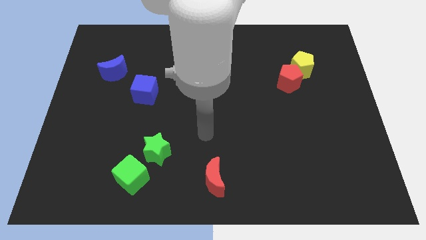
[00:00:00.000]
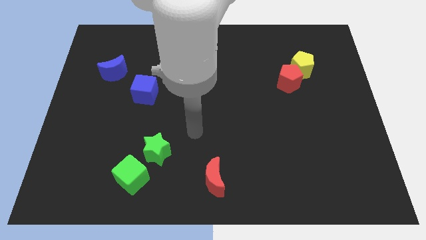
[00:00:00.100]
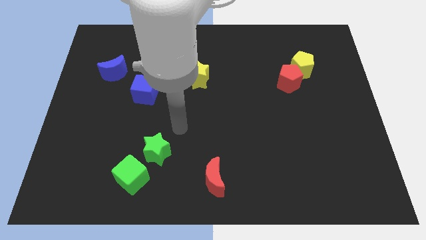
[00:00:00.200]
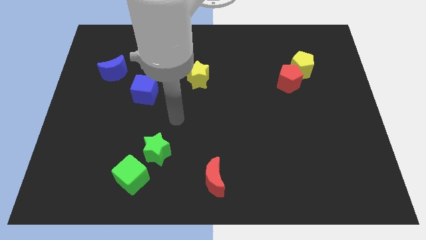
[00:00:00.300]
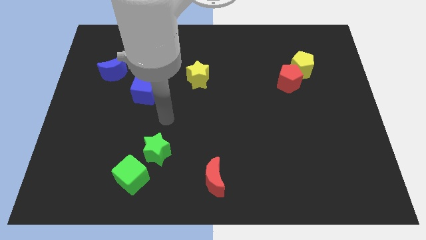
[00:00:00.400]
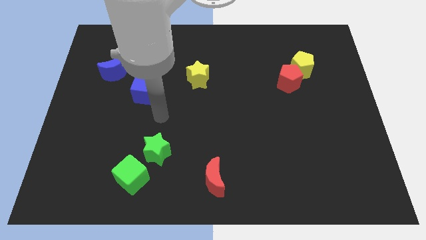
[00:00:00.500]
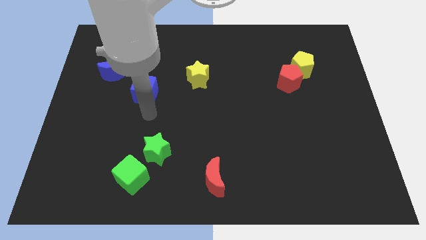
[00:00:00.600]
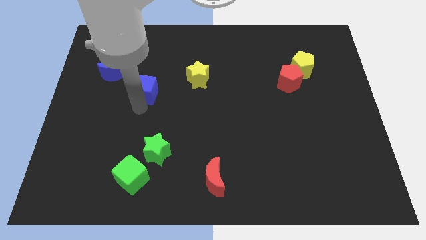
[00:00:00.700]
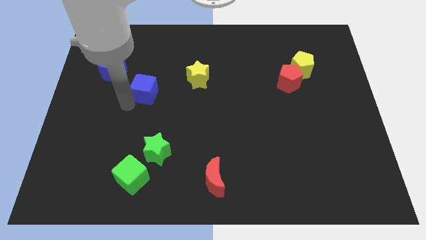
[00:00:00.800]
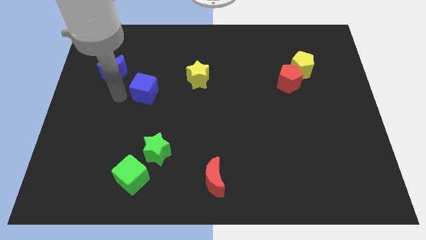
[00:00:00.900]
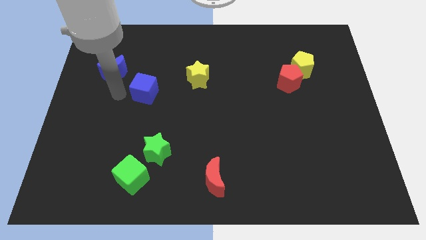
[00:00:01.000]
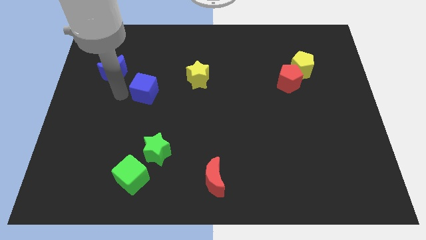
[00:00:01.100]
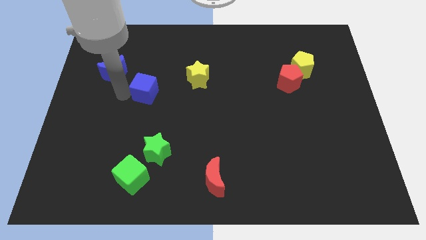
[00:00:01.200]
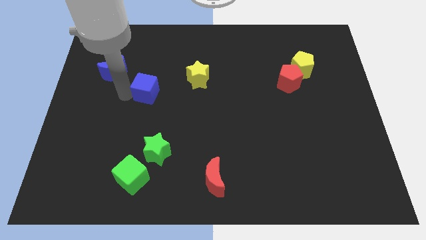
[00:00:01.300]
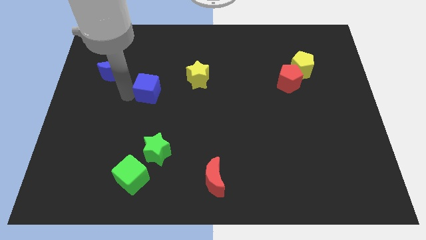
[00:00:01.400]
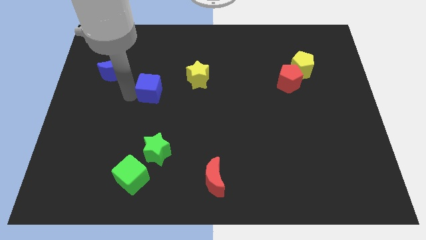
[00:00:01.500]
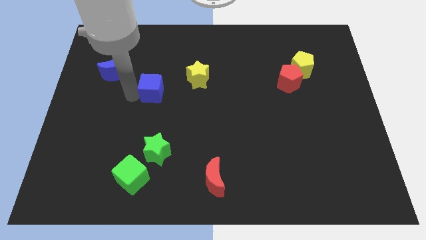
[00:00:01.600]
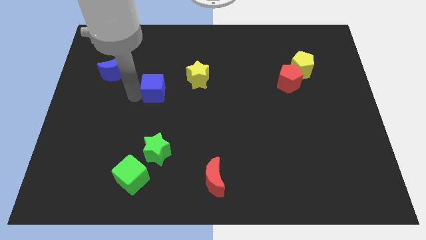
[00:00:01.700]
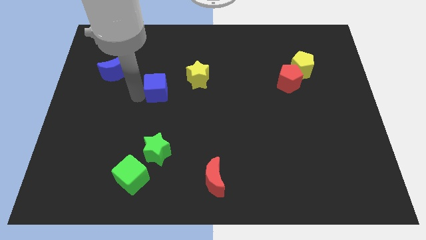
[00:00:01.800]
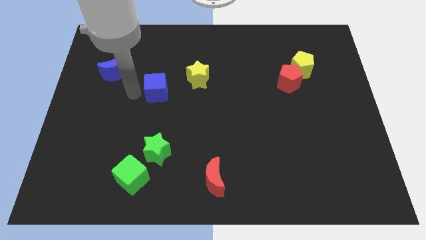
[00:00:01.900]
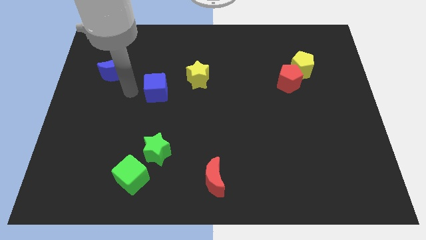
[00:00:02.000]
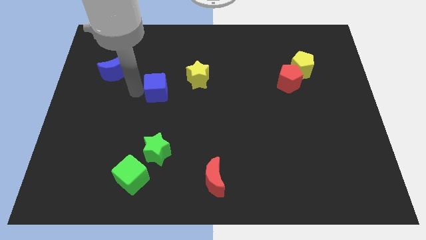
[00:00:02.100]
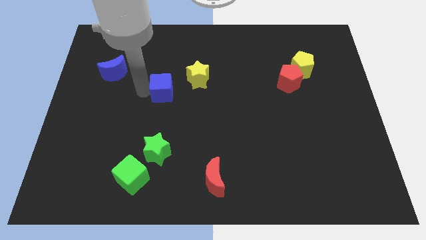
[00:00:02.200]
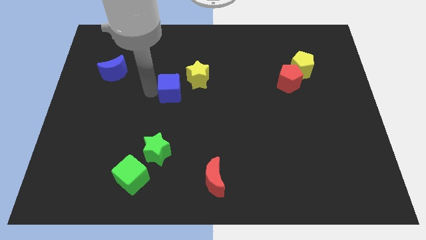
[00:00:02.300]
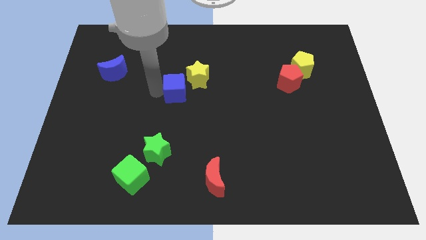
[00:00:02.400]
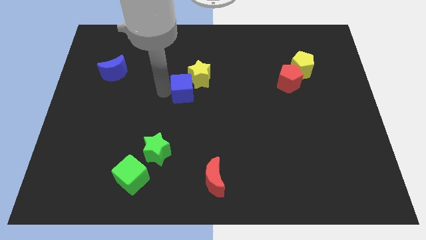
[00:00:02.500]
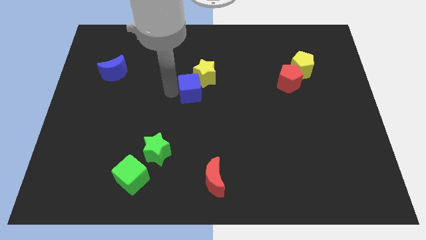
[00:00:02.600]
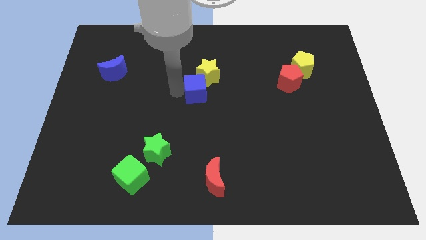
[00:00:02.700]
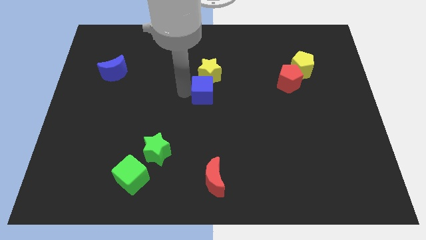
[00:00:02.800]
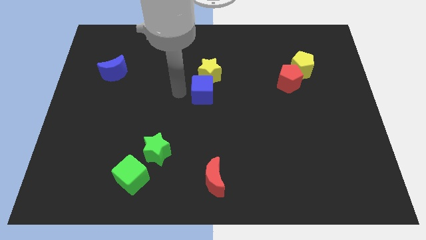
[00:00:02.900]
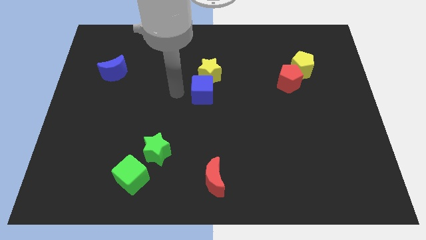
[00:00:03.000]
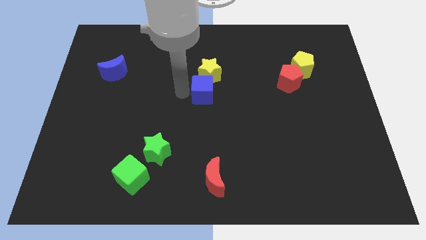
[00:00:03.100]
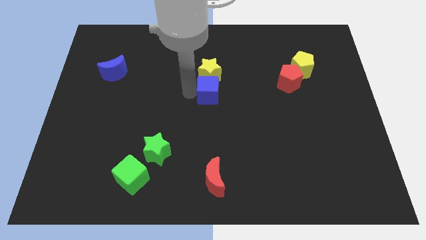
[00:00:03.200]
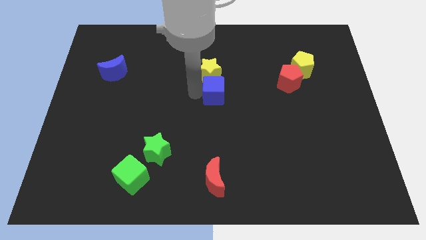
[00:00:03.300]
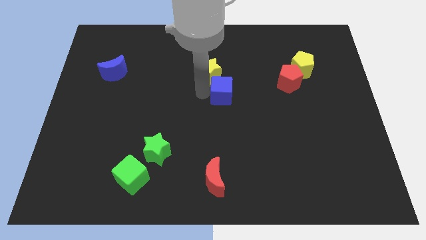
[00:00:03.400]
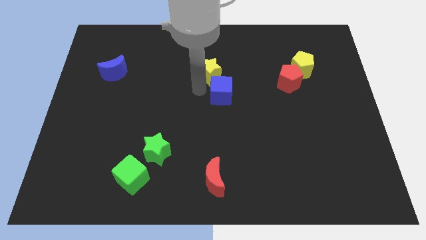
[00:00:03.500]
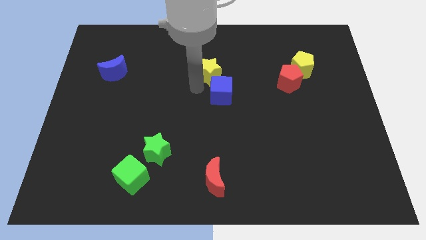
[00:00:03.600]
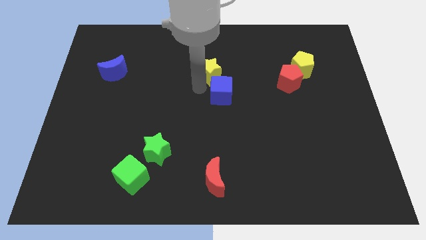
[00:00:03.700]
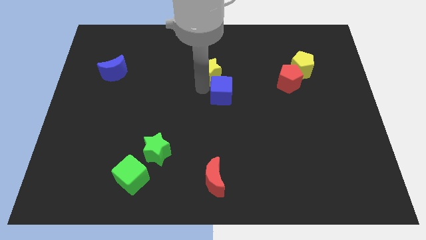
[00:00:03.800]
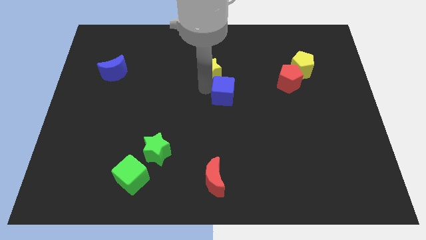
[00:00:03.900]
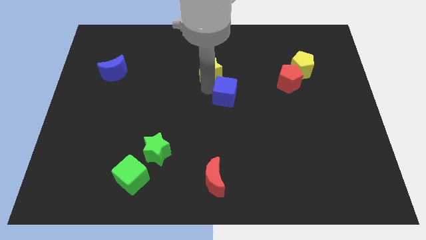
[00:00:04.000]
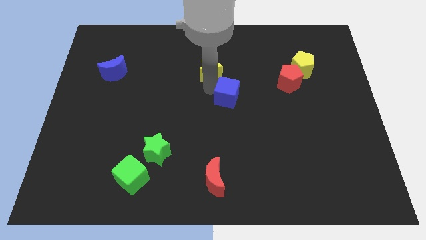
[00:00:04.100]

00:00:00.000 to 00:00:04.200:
move the blue cube right

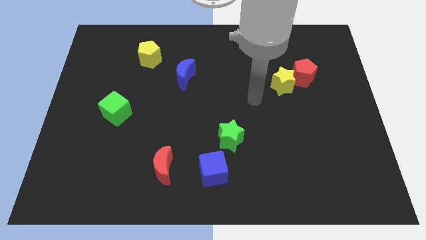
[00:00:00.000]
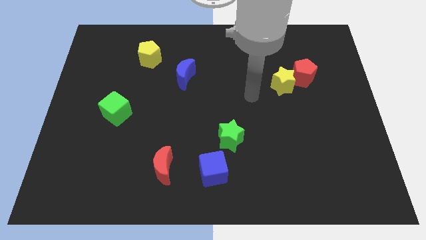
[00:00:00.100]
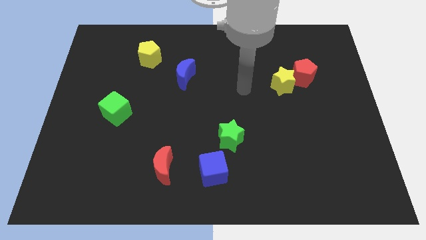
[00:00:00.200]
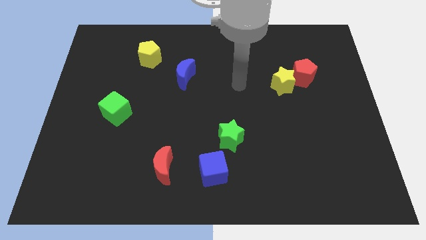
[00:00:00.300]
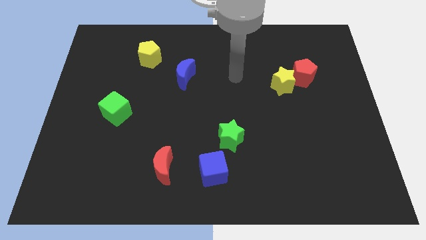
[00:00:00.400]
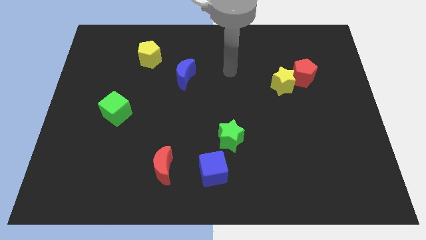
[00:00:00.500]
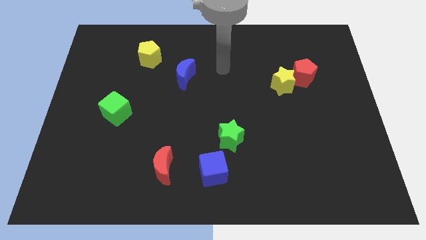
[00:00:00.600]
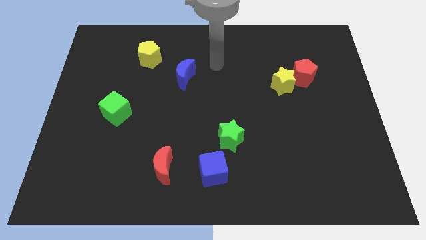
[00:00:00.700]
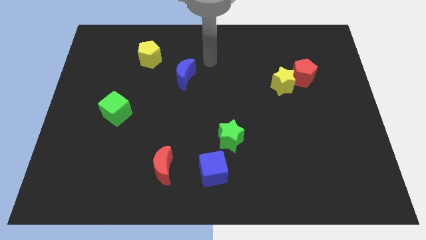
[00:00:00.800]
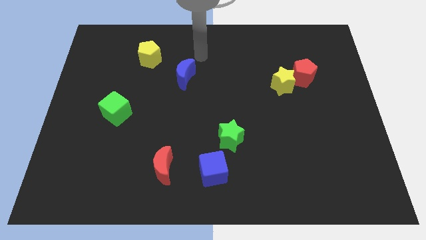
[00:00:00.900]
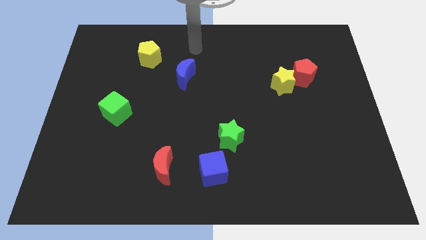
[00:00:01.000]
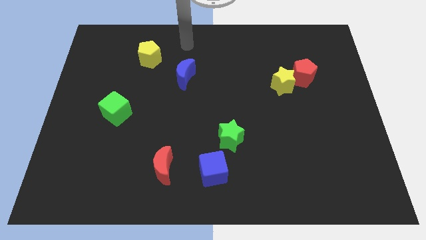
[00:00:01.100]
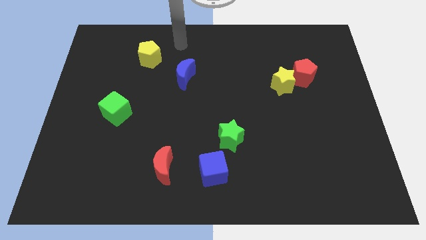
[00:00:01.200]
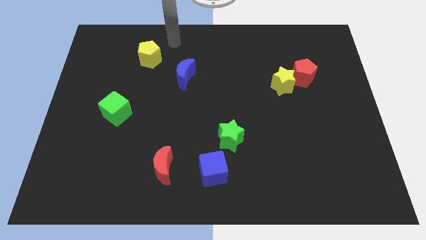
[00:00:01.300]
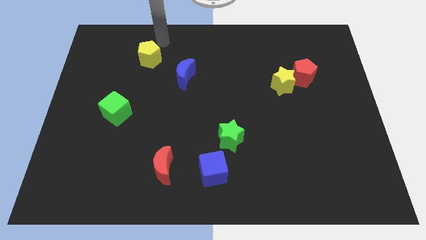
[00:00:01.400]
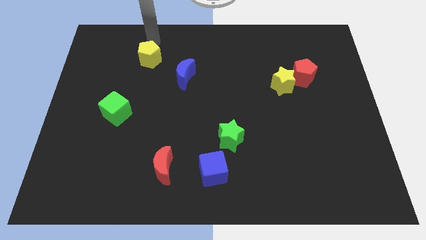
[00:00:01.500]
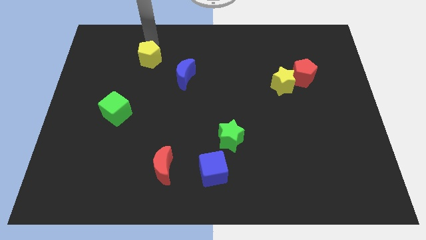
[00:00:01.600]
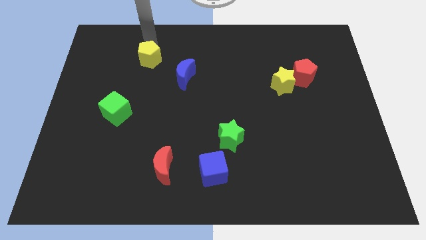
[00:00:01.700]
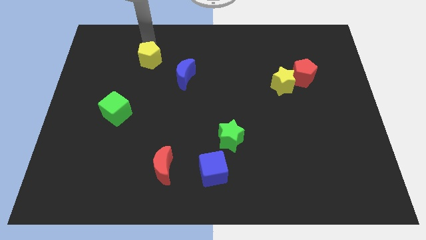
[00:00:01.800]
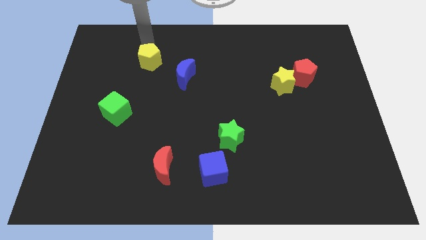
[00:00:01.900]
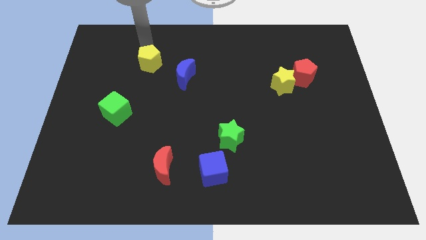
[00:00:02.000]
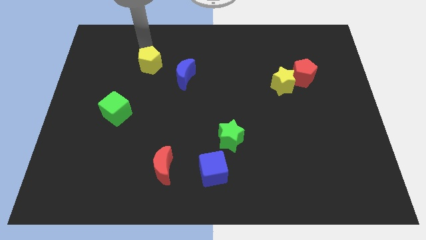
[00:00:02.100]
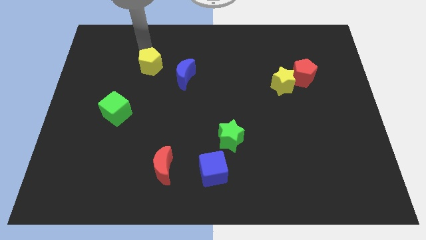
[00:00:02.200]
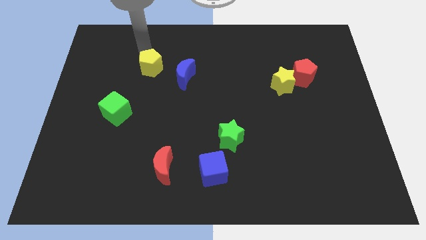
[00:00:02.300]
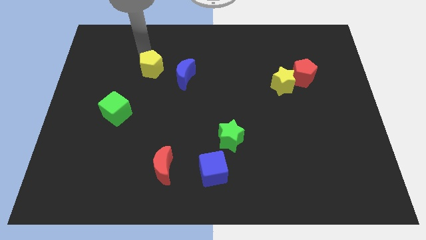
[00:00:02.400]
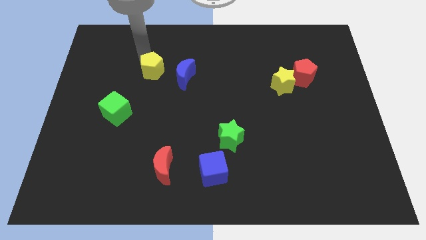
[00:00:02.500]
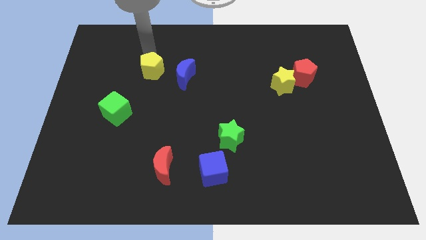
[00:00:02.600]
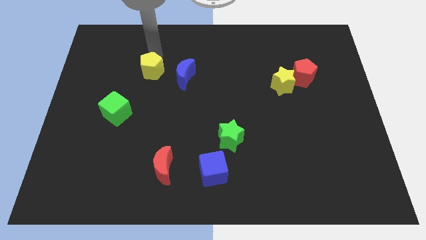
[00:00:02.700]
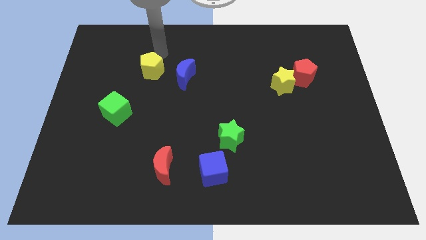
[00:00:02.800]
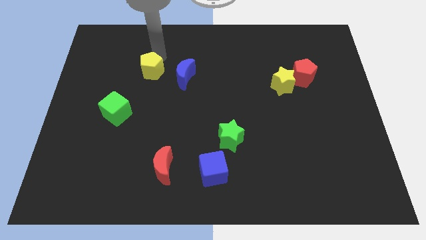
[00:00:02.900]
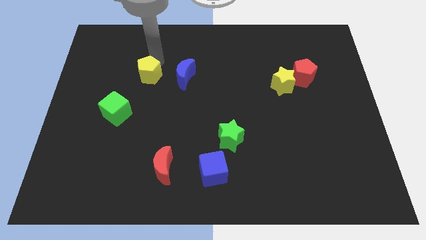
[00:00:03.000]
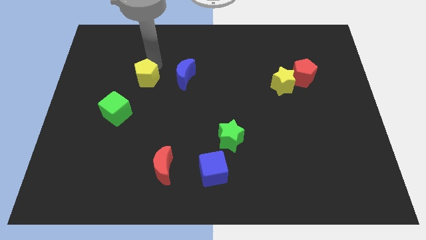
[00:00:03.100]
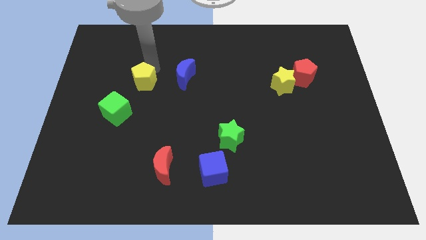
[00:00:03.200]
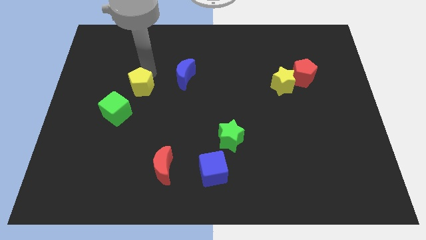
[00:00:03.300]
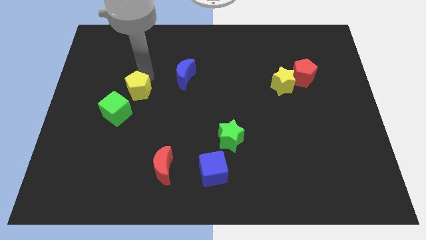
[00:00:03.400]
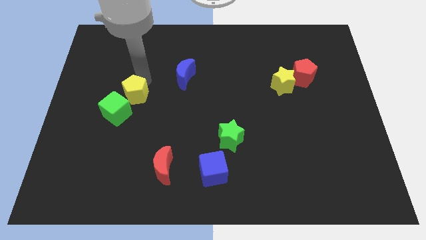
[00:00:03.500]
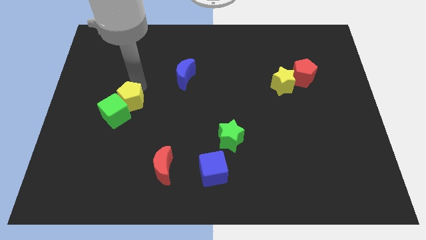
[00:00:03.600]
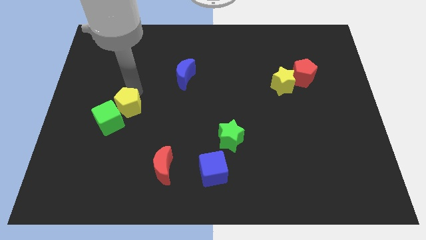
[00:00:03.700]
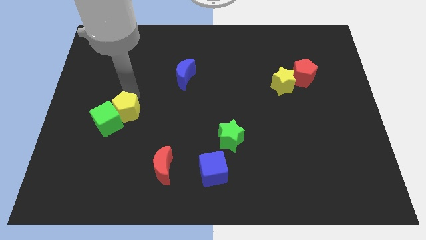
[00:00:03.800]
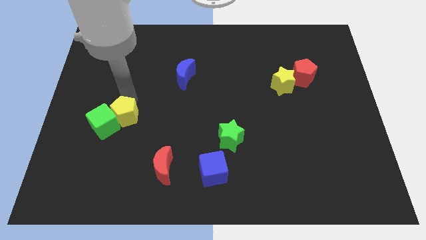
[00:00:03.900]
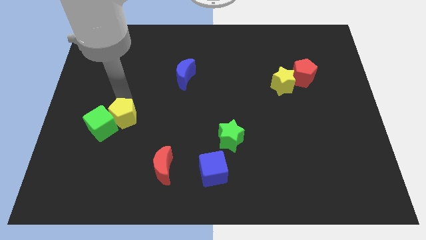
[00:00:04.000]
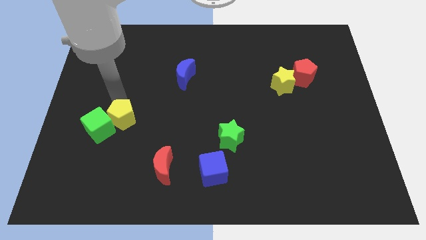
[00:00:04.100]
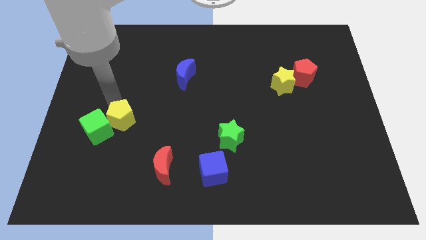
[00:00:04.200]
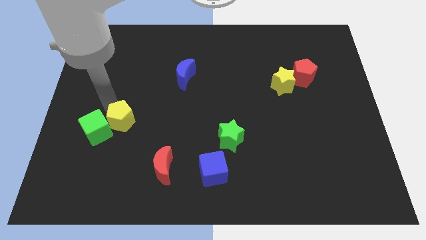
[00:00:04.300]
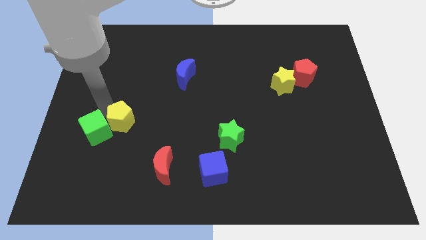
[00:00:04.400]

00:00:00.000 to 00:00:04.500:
move the yellow pentagon down
